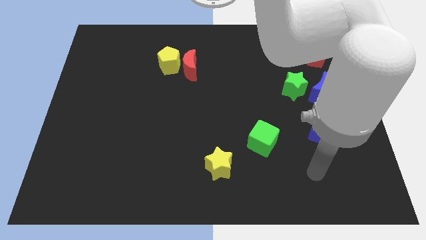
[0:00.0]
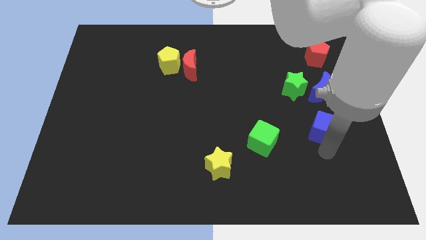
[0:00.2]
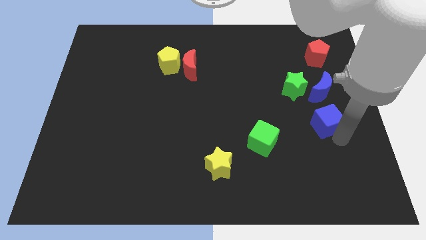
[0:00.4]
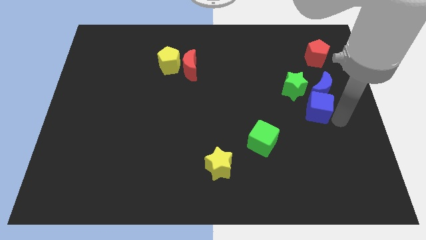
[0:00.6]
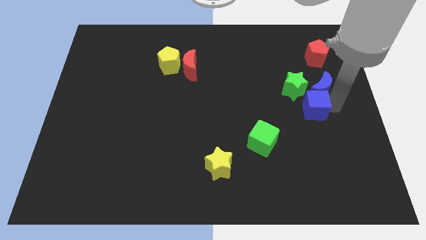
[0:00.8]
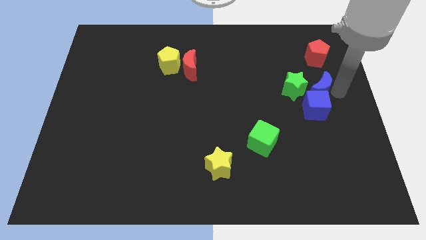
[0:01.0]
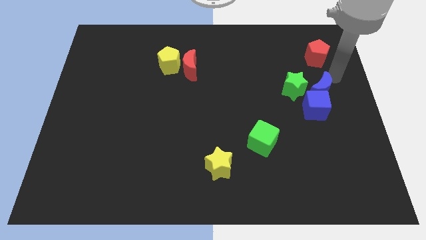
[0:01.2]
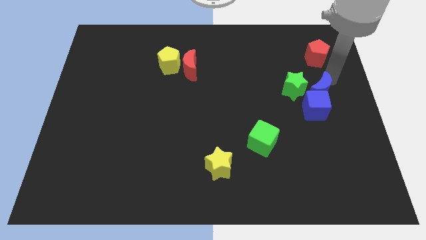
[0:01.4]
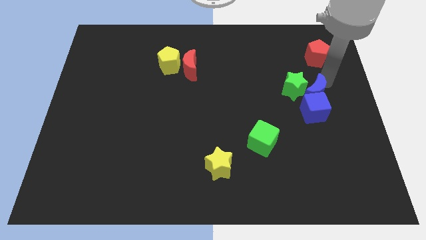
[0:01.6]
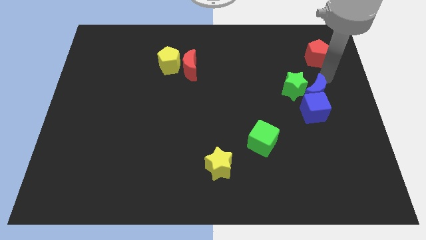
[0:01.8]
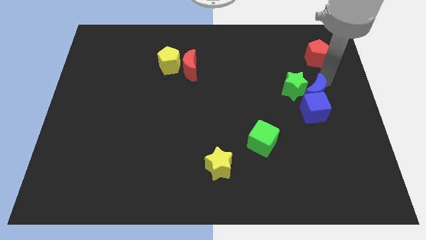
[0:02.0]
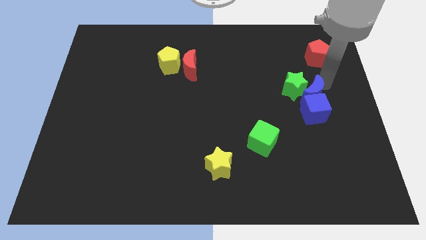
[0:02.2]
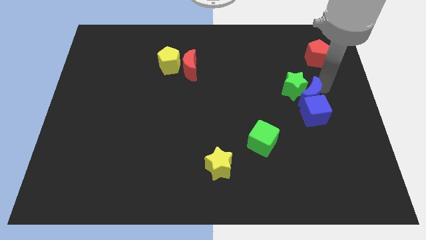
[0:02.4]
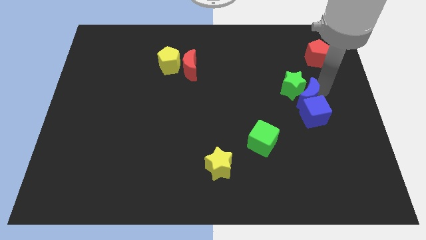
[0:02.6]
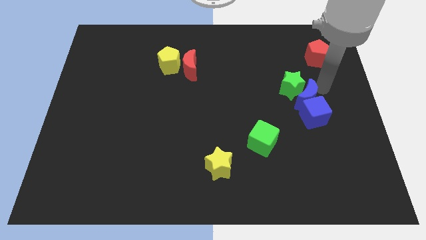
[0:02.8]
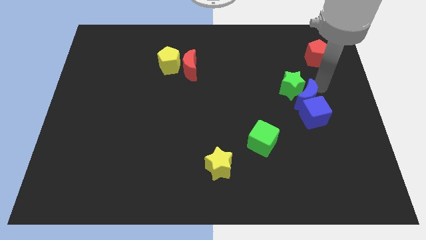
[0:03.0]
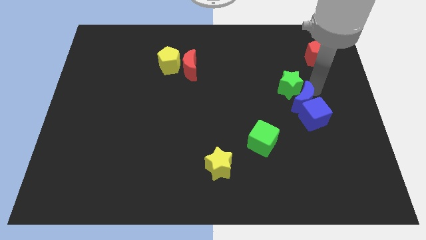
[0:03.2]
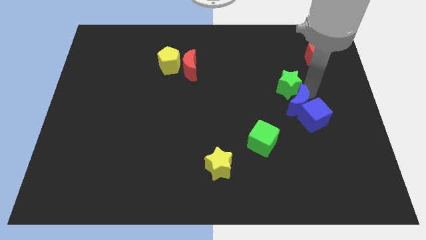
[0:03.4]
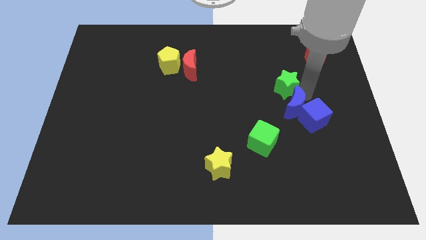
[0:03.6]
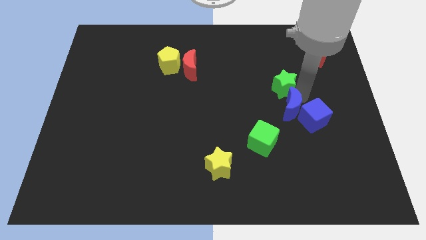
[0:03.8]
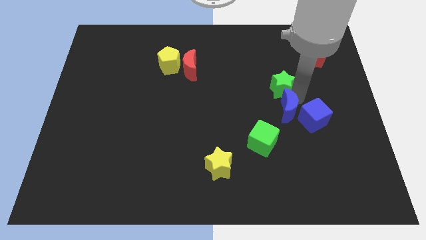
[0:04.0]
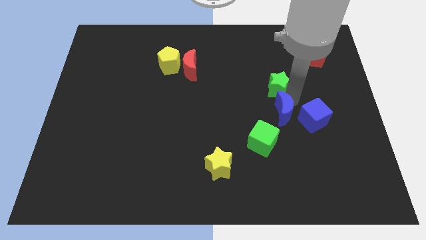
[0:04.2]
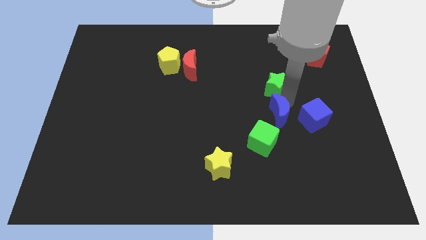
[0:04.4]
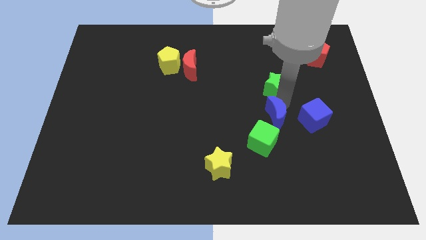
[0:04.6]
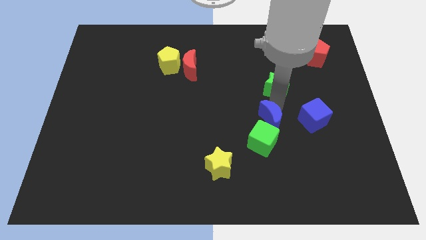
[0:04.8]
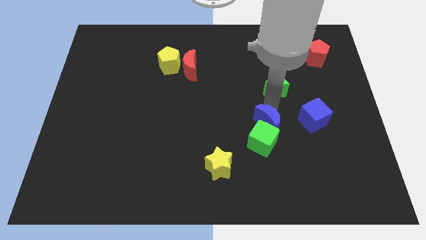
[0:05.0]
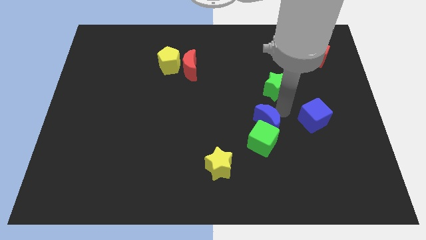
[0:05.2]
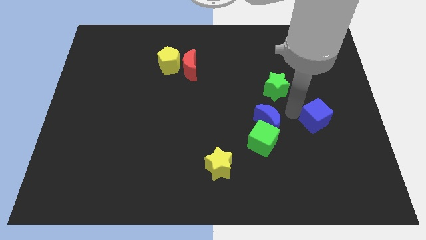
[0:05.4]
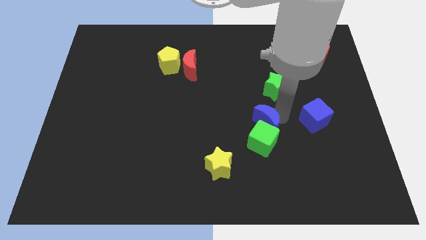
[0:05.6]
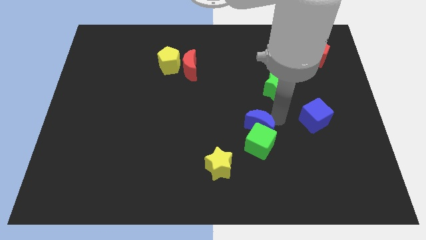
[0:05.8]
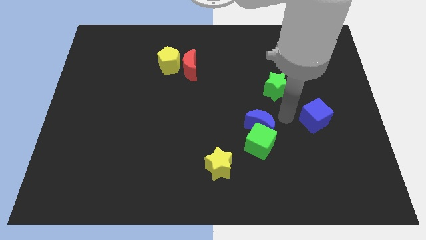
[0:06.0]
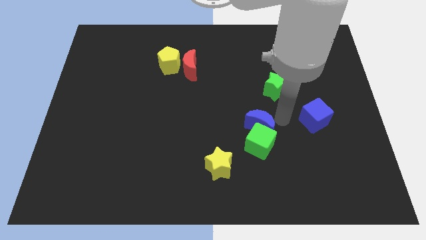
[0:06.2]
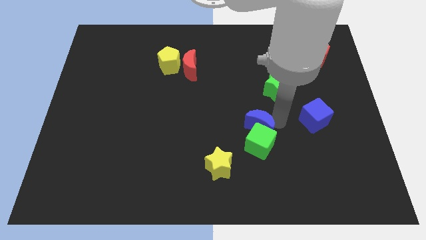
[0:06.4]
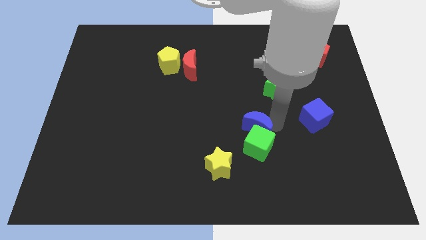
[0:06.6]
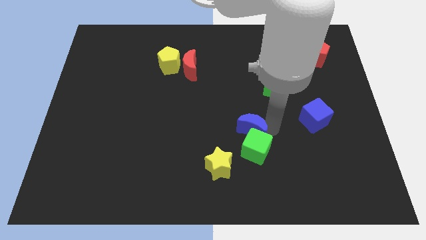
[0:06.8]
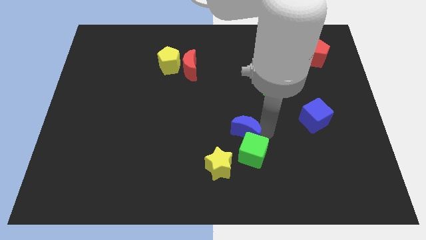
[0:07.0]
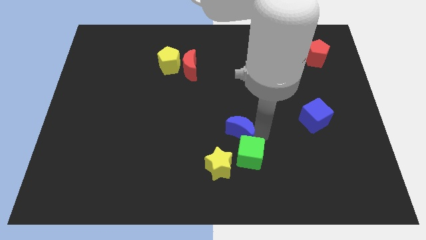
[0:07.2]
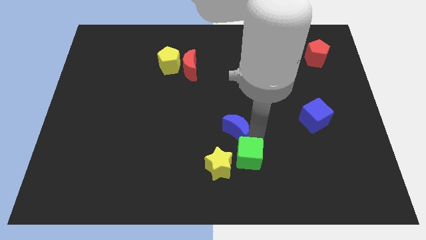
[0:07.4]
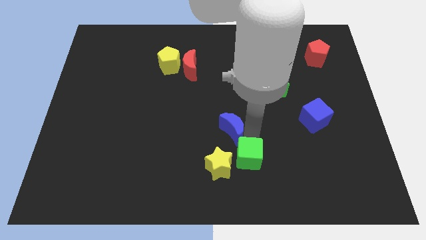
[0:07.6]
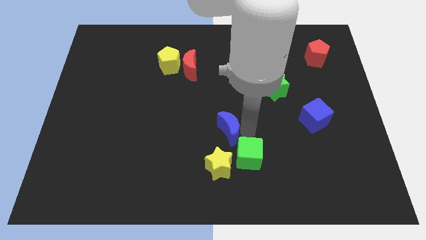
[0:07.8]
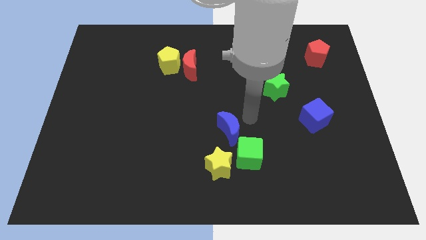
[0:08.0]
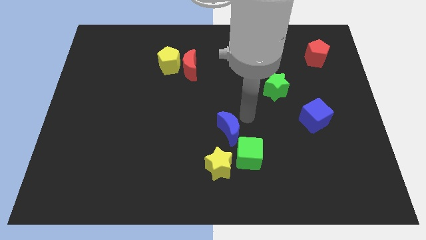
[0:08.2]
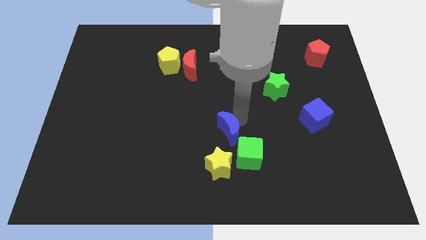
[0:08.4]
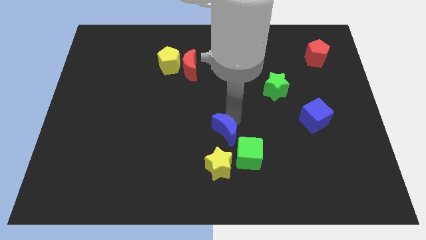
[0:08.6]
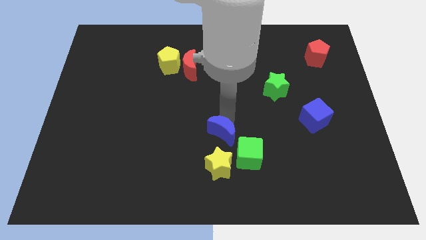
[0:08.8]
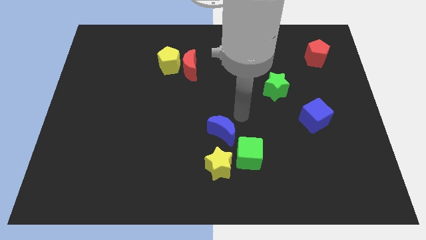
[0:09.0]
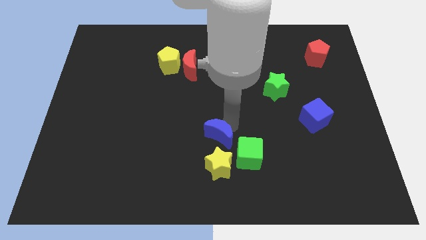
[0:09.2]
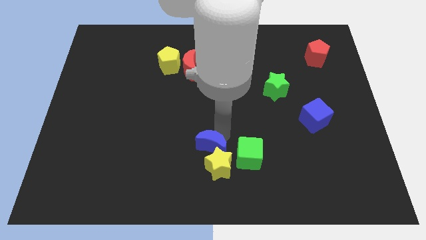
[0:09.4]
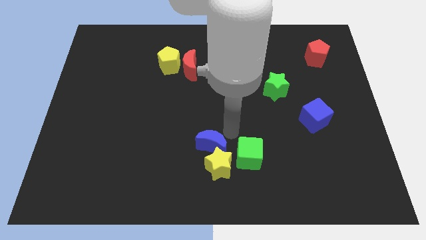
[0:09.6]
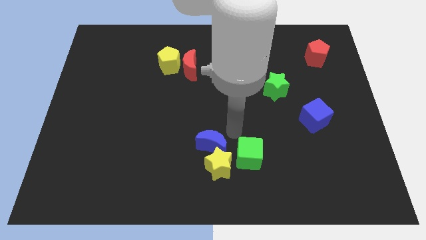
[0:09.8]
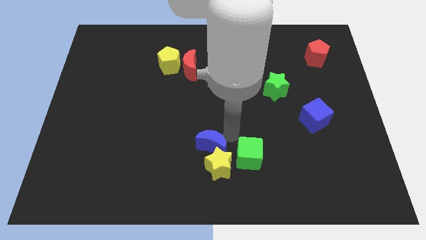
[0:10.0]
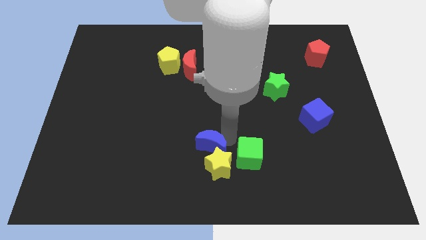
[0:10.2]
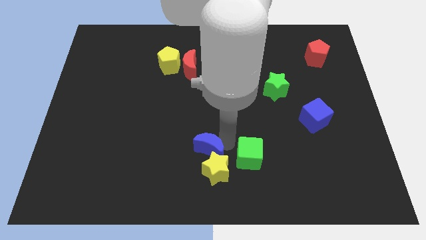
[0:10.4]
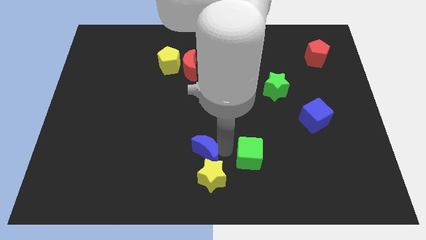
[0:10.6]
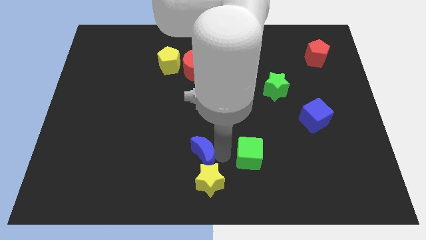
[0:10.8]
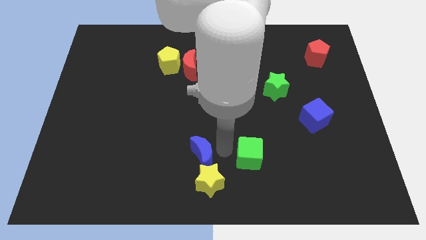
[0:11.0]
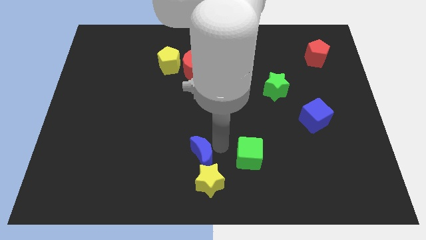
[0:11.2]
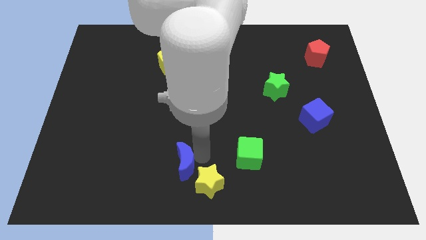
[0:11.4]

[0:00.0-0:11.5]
put the blue moon just left of the yellow star

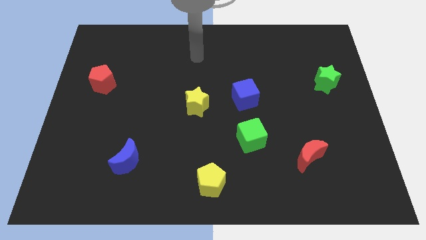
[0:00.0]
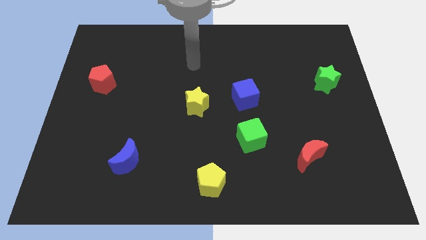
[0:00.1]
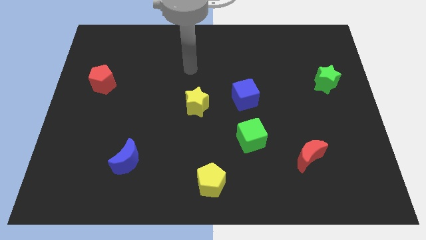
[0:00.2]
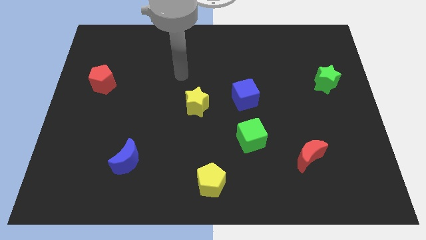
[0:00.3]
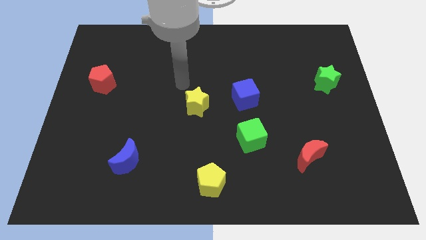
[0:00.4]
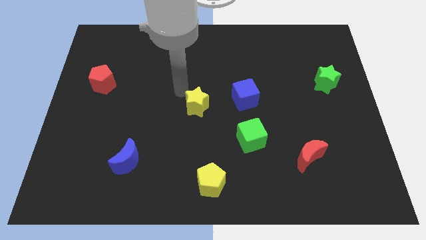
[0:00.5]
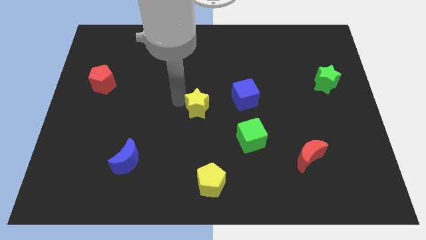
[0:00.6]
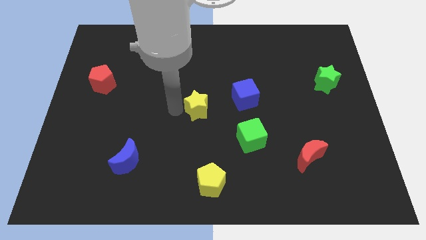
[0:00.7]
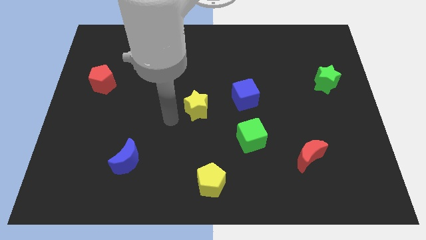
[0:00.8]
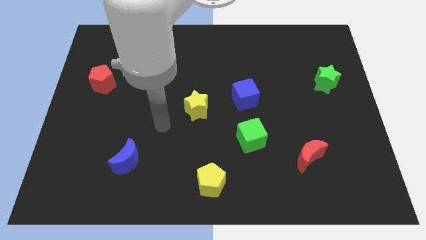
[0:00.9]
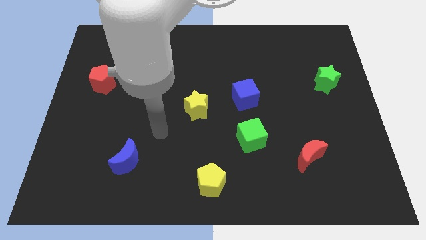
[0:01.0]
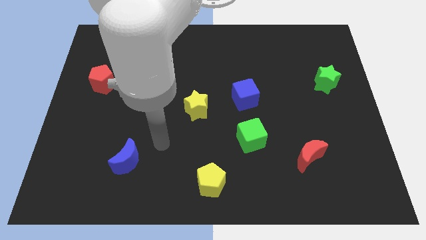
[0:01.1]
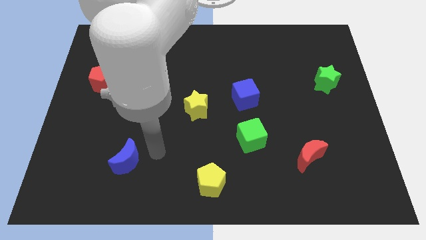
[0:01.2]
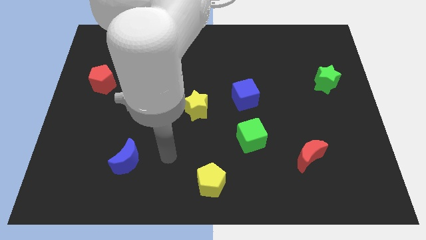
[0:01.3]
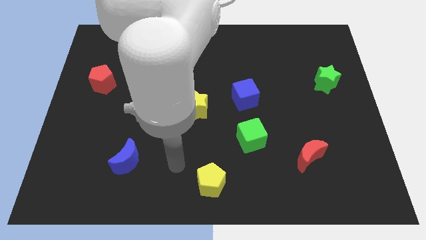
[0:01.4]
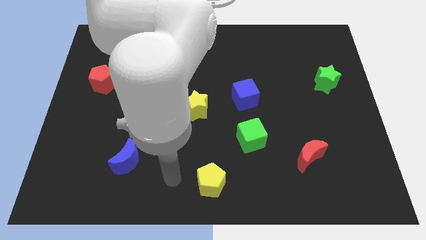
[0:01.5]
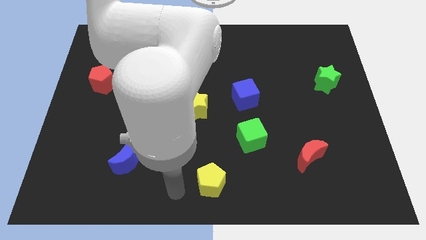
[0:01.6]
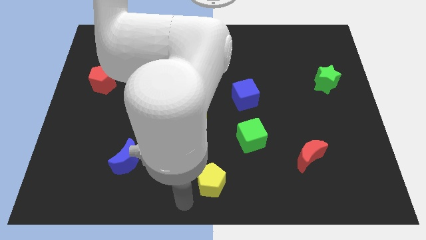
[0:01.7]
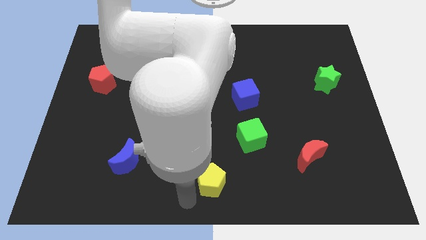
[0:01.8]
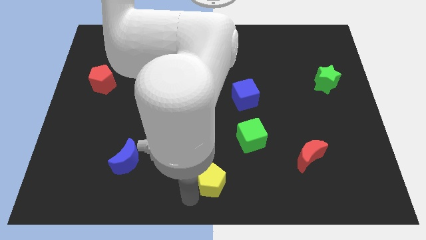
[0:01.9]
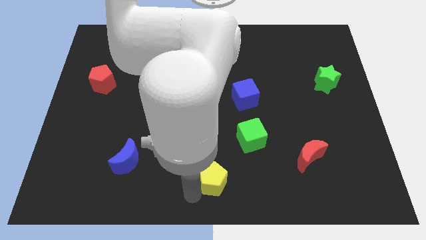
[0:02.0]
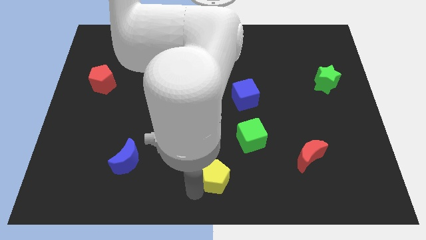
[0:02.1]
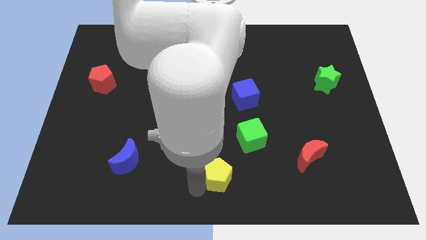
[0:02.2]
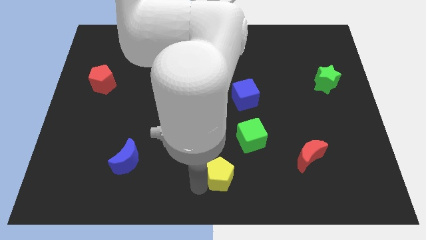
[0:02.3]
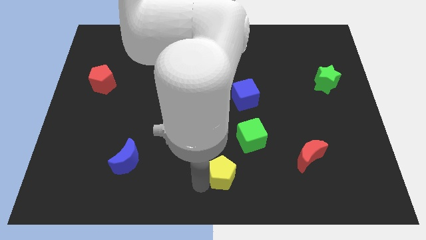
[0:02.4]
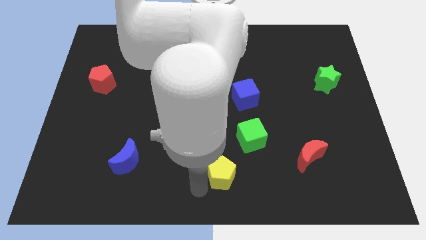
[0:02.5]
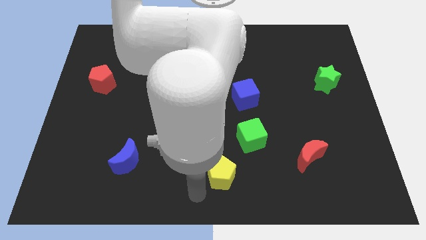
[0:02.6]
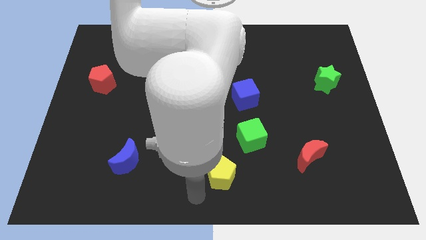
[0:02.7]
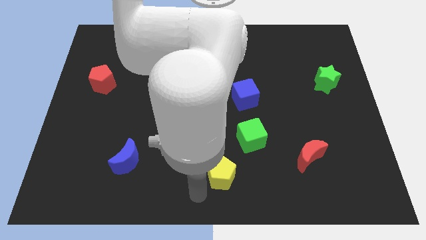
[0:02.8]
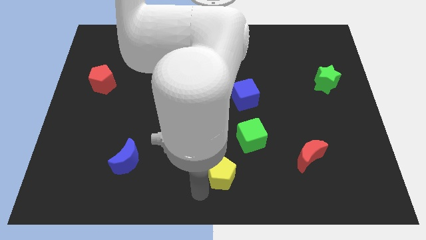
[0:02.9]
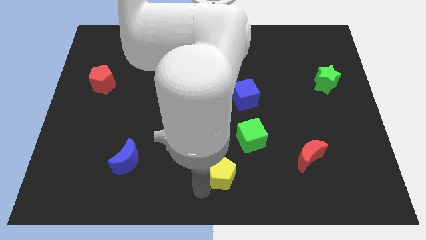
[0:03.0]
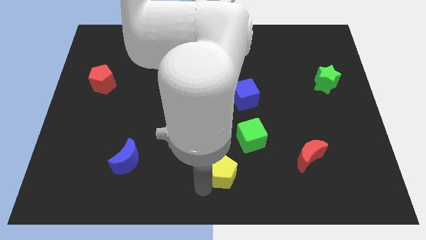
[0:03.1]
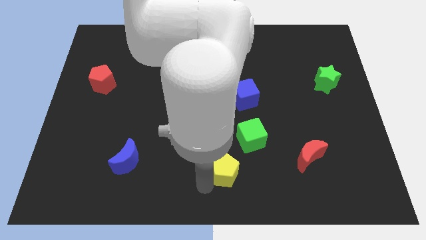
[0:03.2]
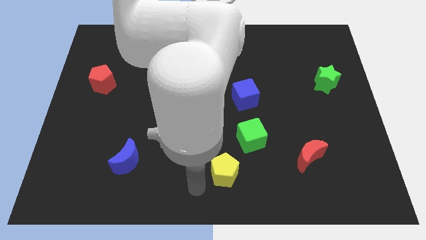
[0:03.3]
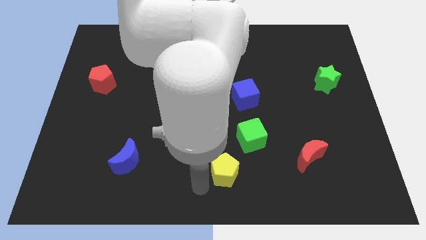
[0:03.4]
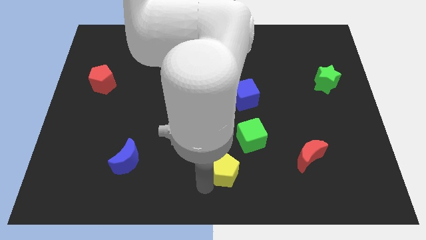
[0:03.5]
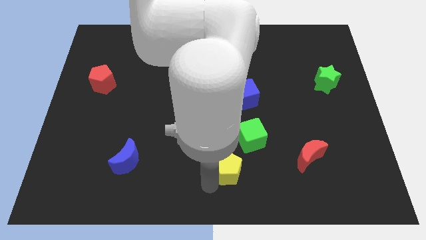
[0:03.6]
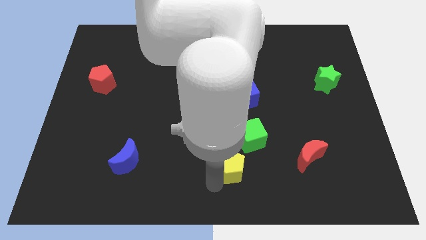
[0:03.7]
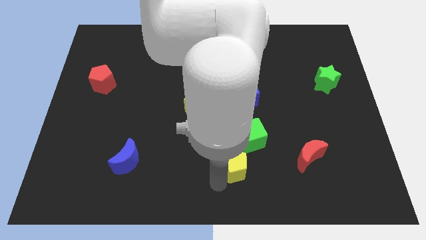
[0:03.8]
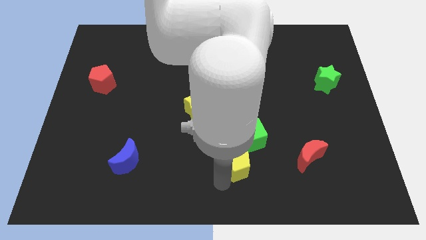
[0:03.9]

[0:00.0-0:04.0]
slide the yellow pentagon just left of the red moon
